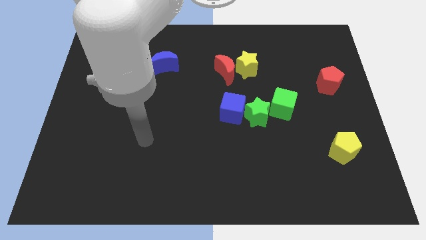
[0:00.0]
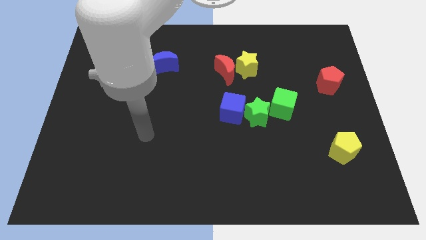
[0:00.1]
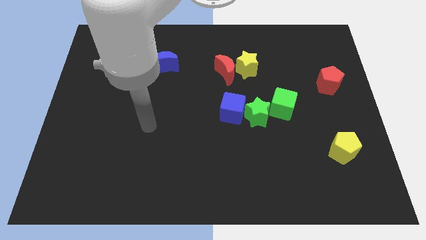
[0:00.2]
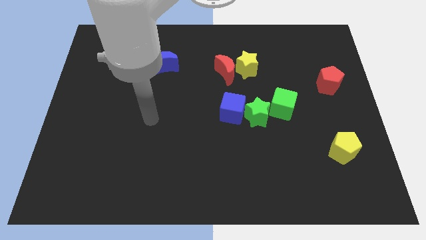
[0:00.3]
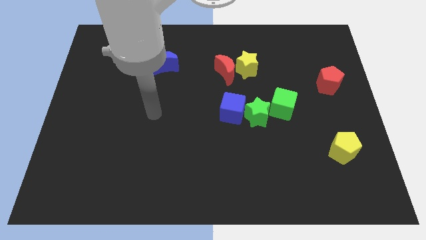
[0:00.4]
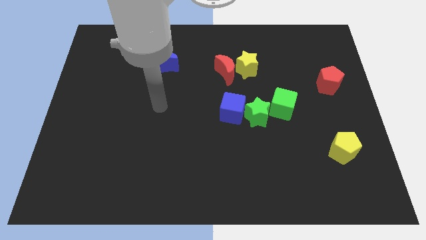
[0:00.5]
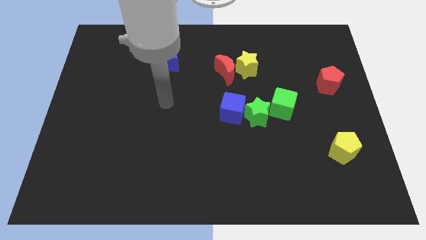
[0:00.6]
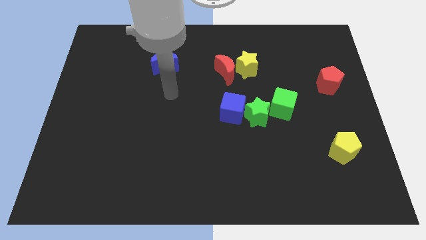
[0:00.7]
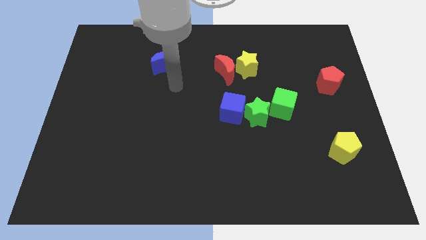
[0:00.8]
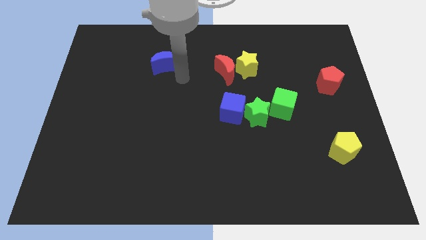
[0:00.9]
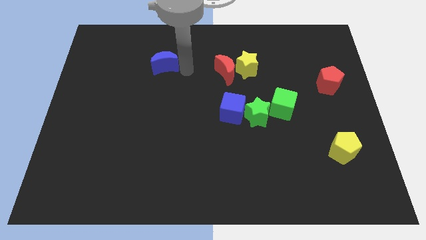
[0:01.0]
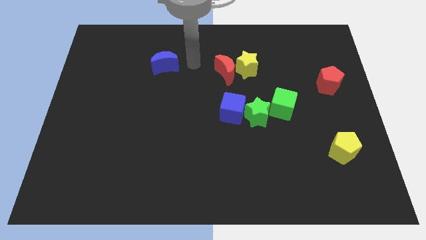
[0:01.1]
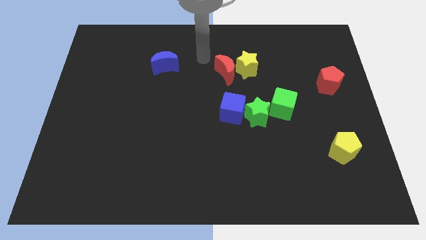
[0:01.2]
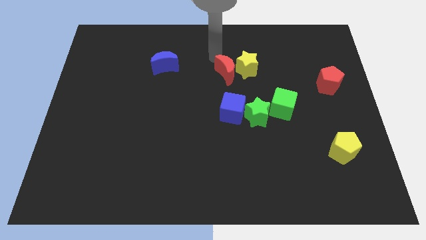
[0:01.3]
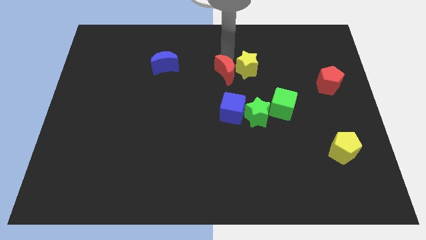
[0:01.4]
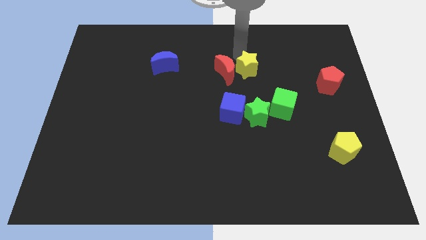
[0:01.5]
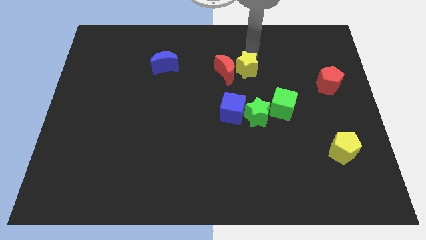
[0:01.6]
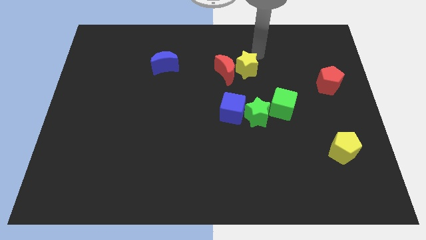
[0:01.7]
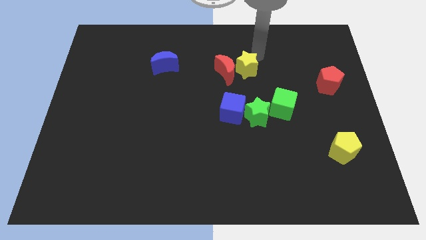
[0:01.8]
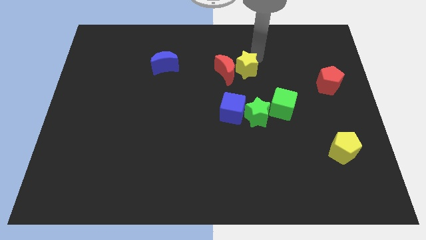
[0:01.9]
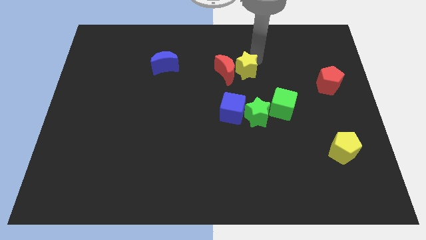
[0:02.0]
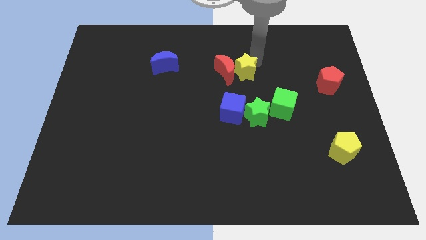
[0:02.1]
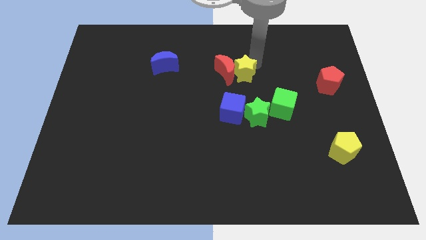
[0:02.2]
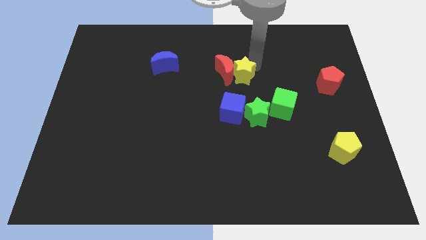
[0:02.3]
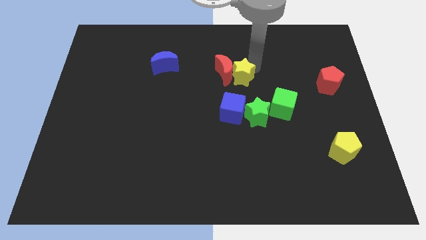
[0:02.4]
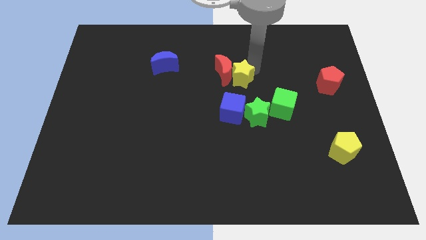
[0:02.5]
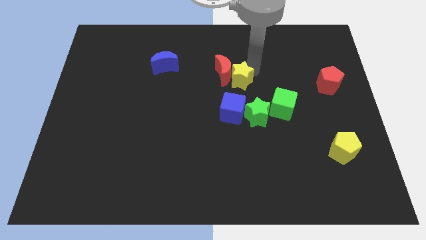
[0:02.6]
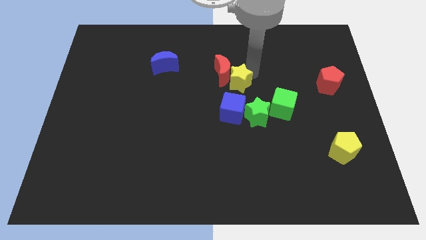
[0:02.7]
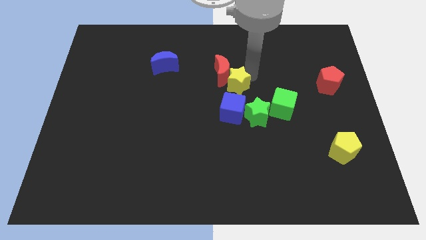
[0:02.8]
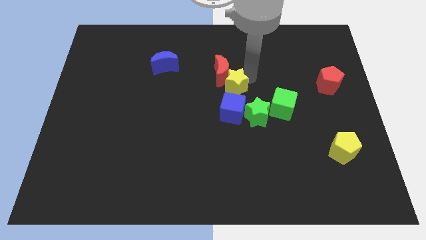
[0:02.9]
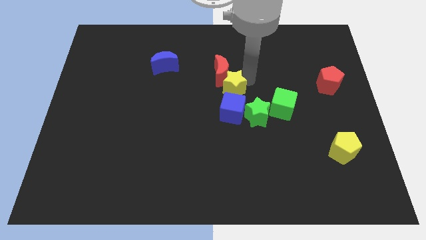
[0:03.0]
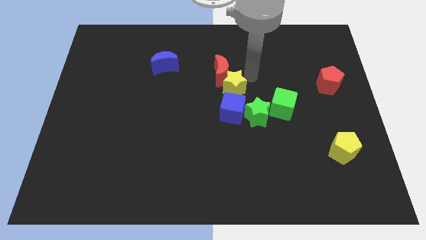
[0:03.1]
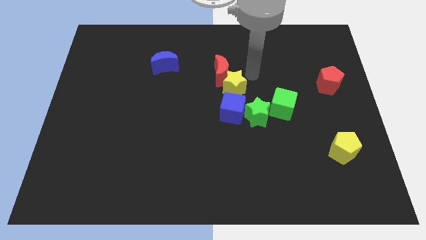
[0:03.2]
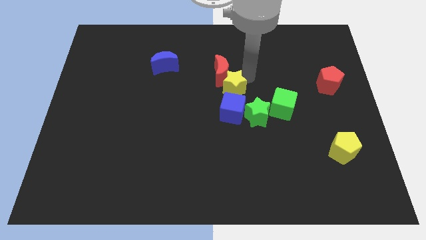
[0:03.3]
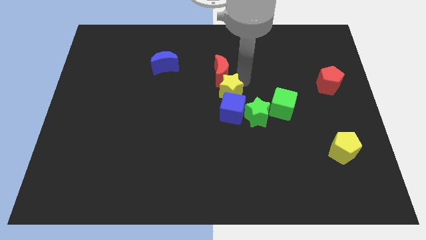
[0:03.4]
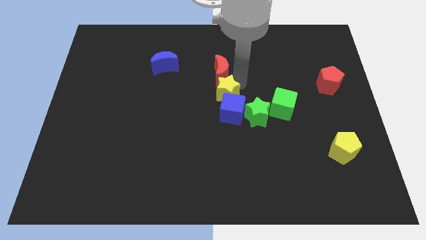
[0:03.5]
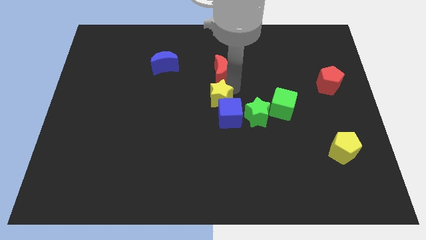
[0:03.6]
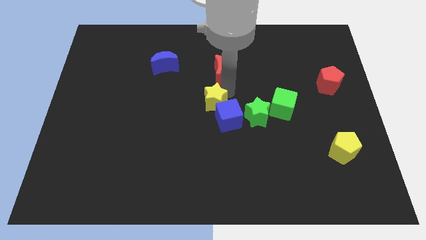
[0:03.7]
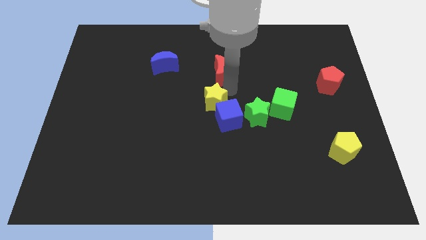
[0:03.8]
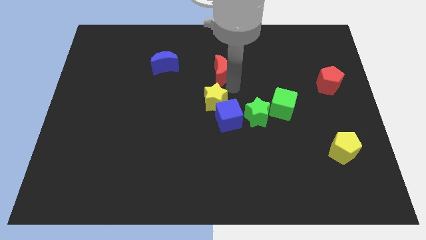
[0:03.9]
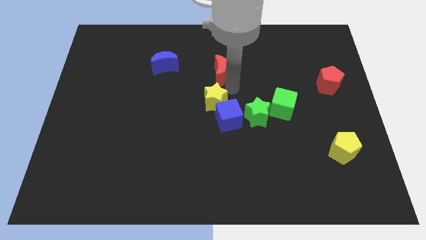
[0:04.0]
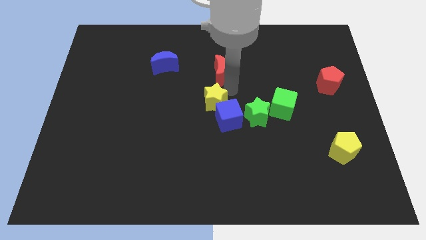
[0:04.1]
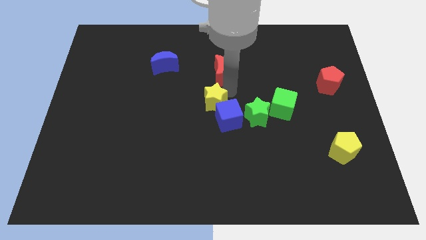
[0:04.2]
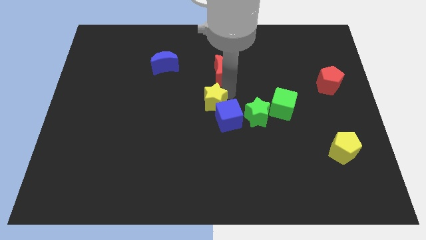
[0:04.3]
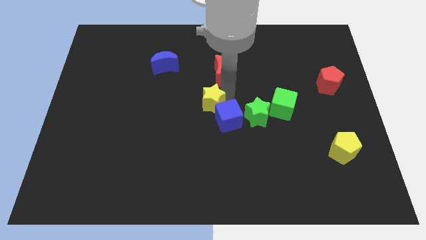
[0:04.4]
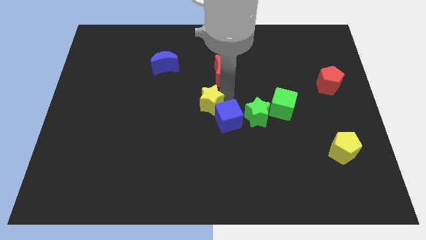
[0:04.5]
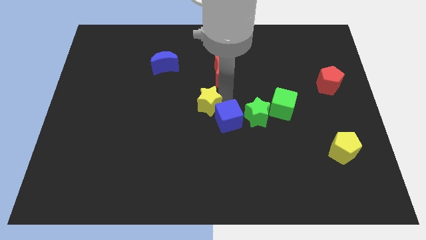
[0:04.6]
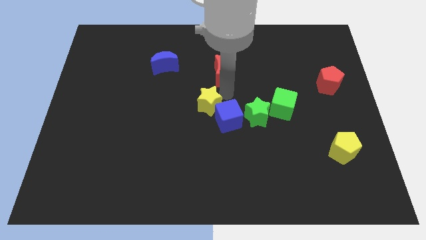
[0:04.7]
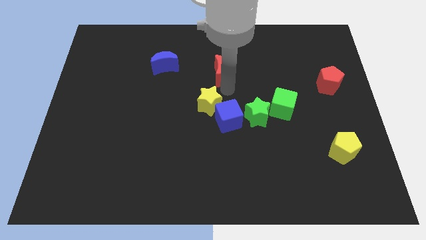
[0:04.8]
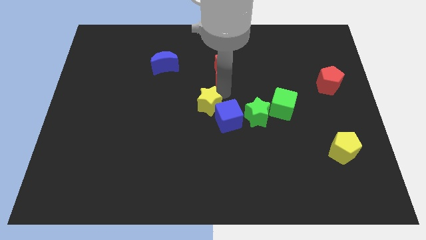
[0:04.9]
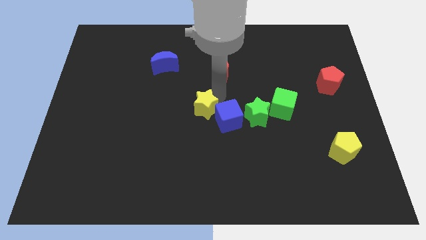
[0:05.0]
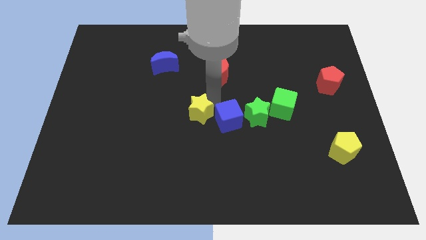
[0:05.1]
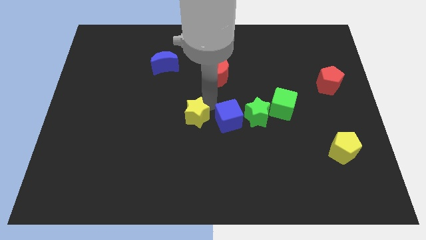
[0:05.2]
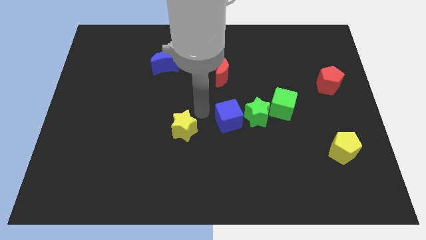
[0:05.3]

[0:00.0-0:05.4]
slide the yellow star diagonally downwards and left

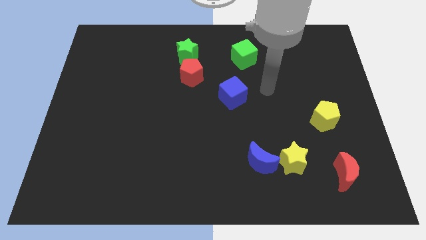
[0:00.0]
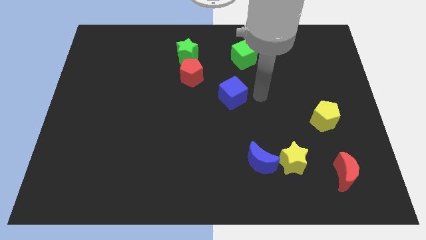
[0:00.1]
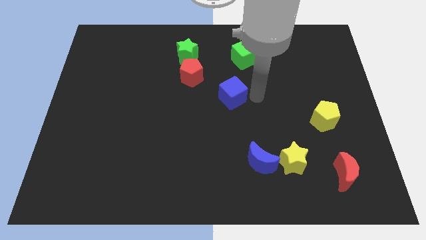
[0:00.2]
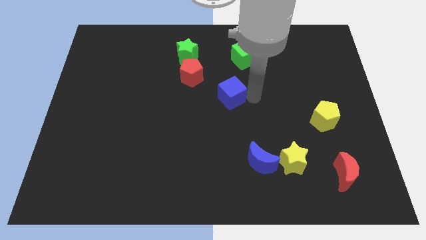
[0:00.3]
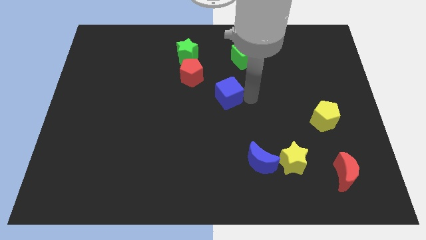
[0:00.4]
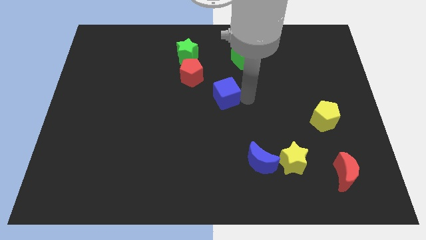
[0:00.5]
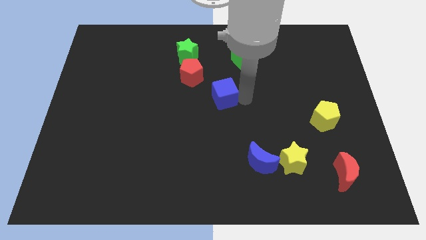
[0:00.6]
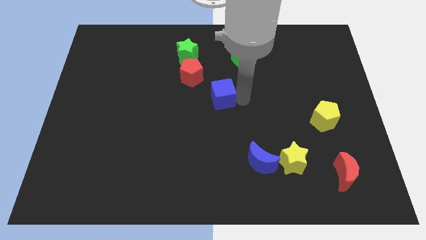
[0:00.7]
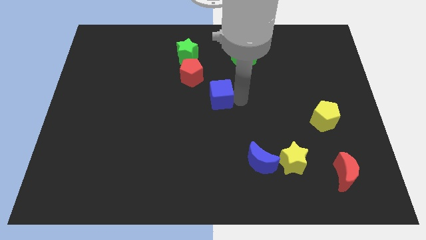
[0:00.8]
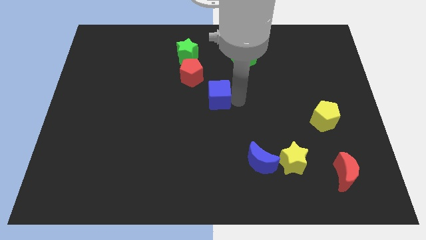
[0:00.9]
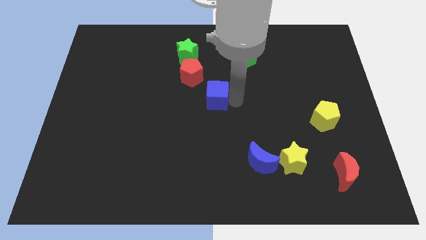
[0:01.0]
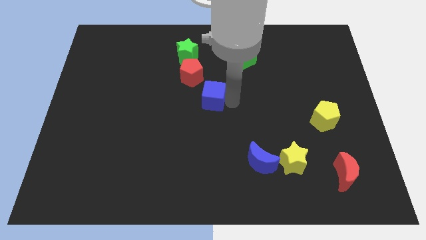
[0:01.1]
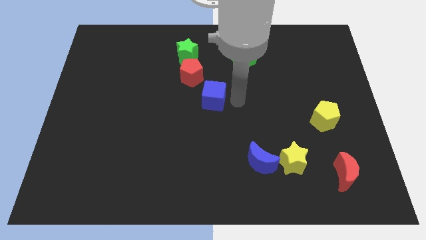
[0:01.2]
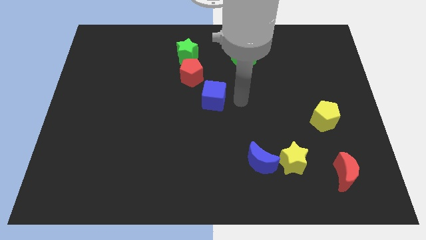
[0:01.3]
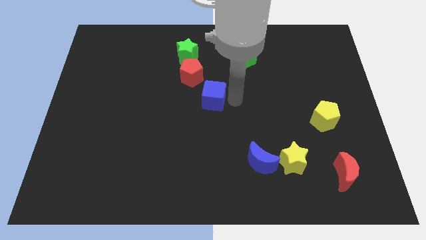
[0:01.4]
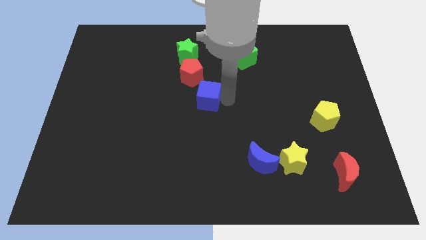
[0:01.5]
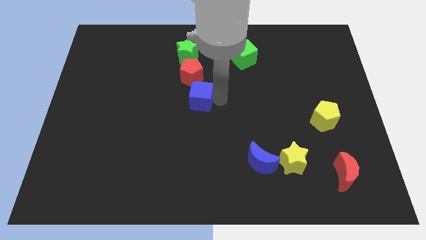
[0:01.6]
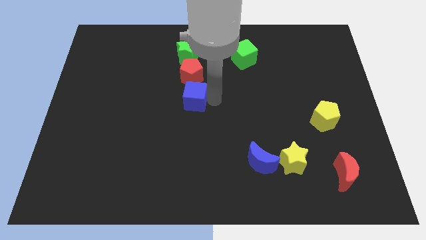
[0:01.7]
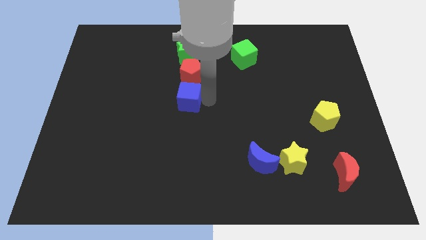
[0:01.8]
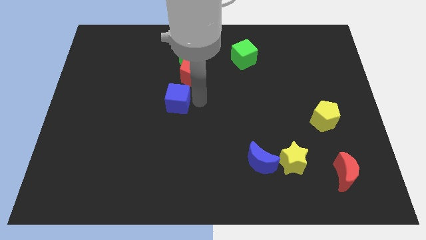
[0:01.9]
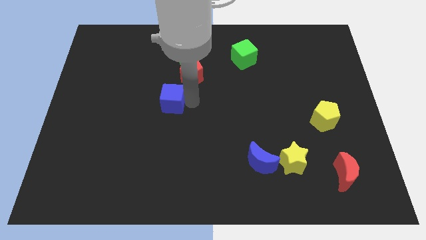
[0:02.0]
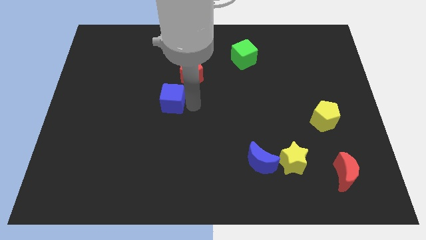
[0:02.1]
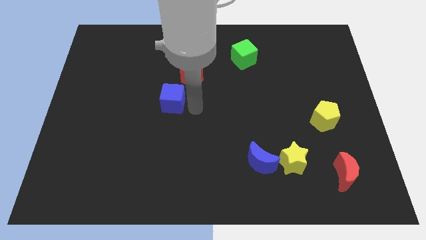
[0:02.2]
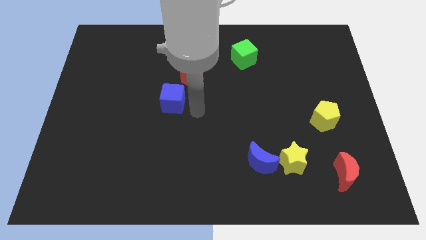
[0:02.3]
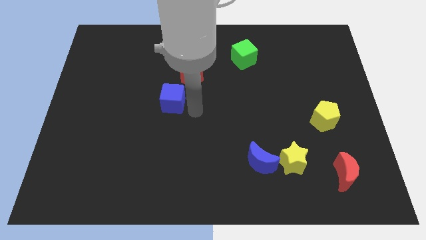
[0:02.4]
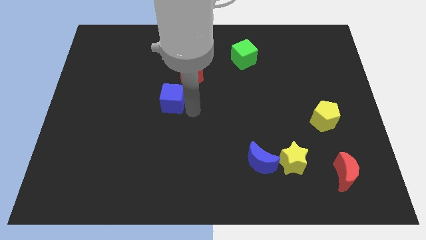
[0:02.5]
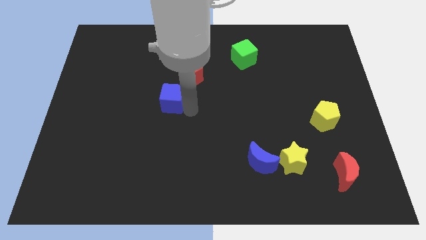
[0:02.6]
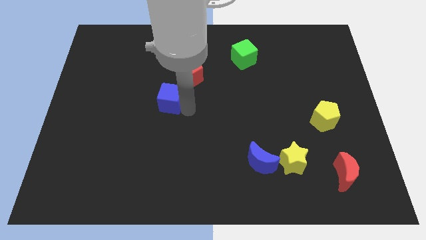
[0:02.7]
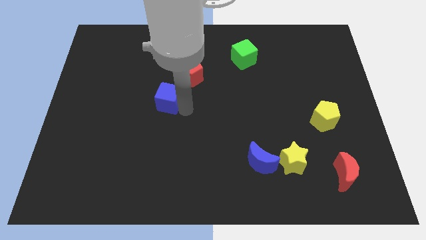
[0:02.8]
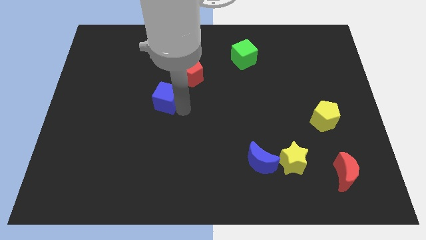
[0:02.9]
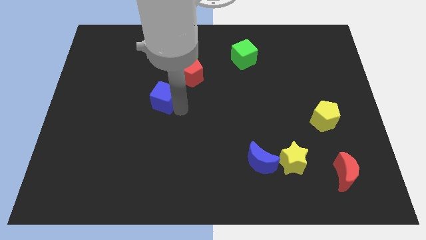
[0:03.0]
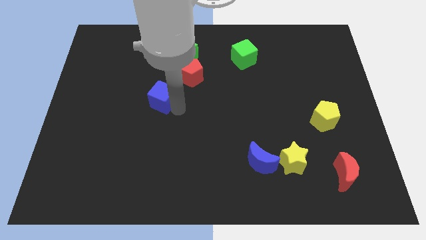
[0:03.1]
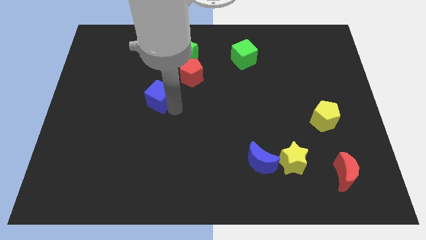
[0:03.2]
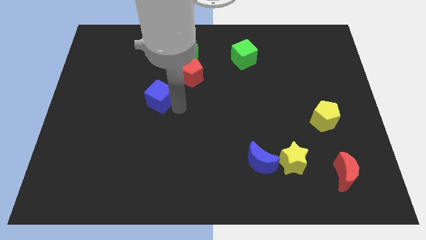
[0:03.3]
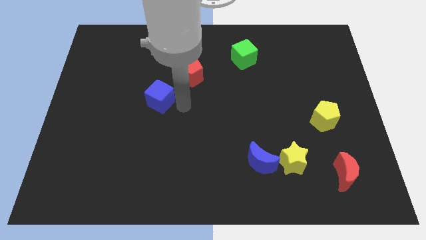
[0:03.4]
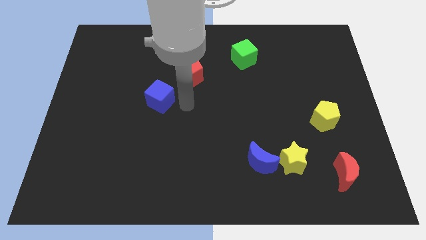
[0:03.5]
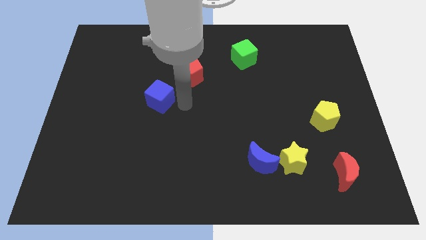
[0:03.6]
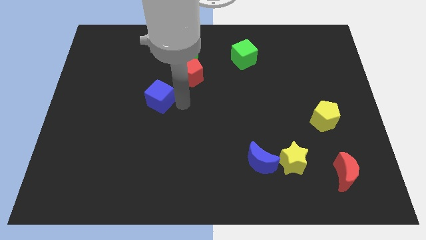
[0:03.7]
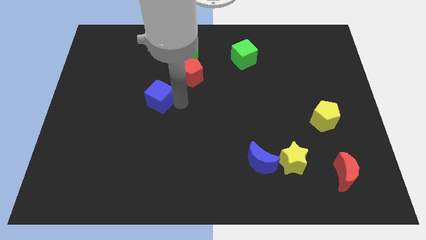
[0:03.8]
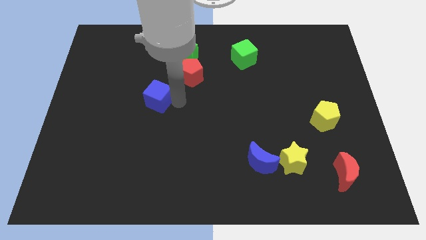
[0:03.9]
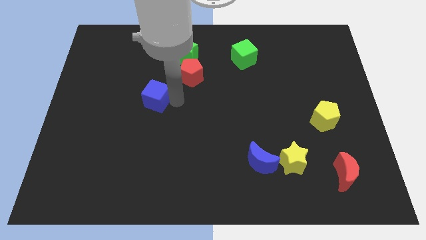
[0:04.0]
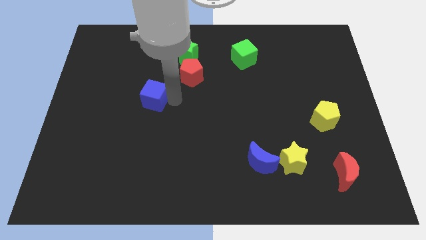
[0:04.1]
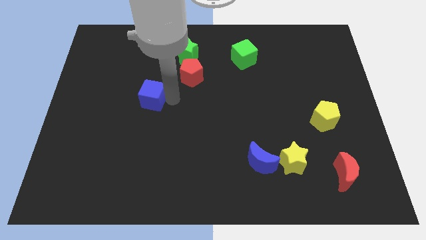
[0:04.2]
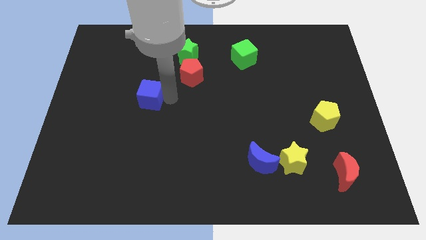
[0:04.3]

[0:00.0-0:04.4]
slide the blue cube left
